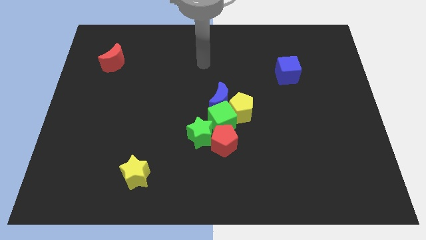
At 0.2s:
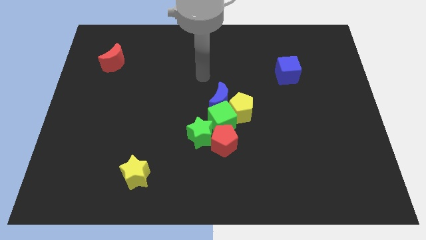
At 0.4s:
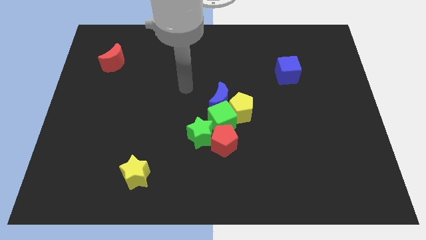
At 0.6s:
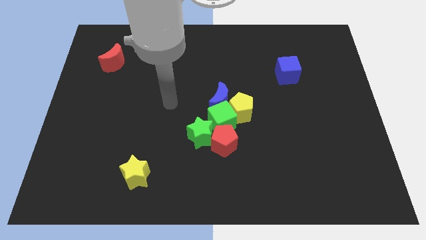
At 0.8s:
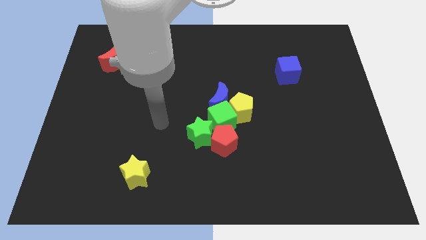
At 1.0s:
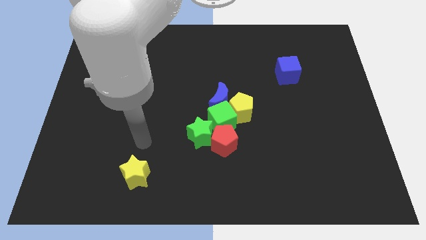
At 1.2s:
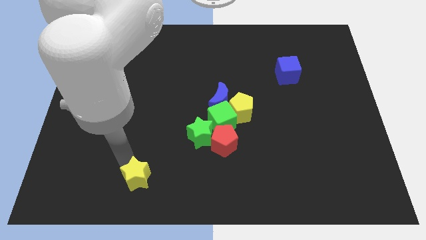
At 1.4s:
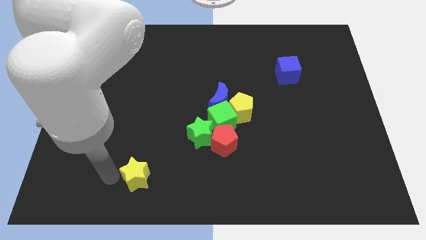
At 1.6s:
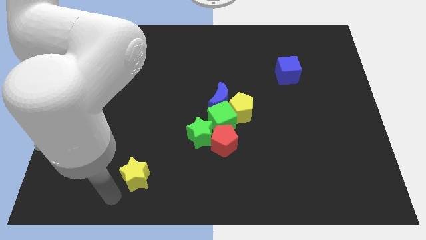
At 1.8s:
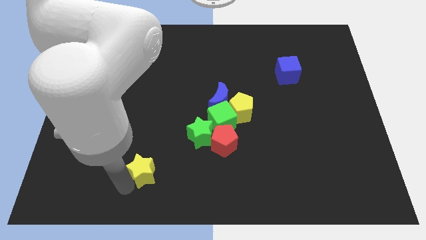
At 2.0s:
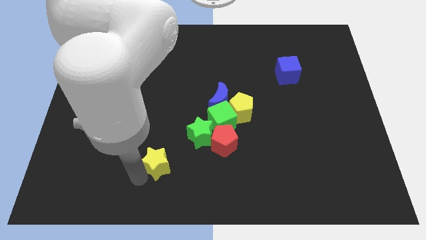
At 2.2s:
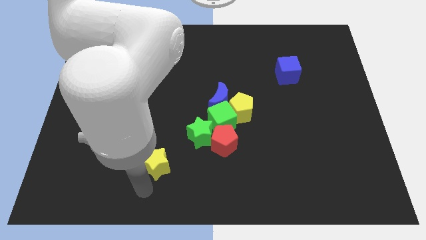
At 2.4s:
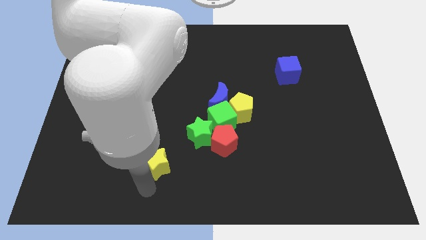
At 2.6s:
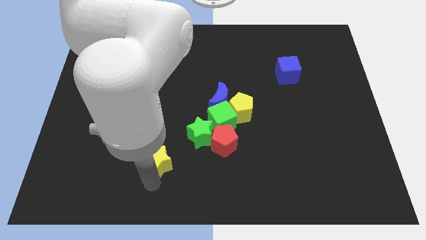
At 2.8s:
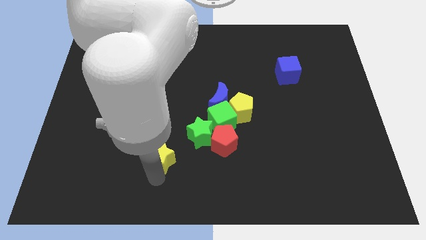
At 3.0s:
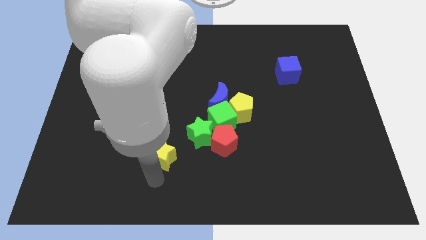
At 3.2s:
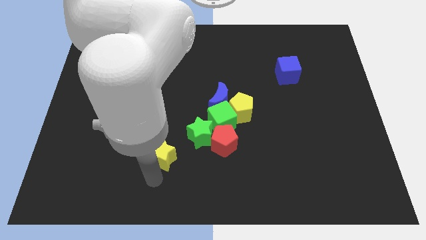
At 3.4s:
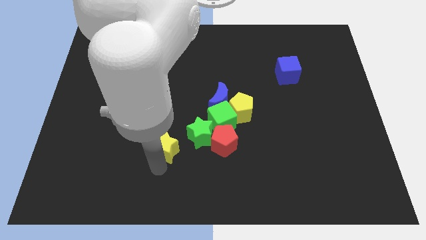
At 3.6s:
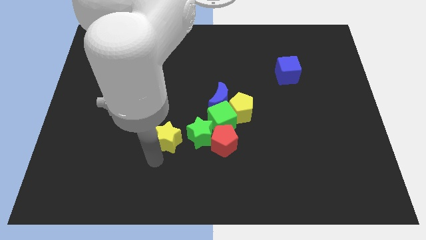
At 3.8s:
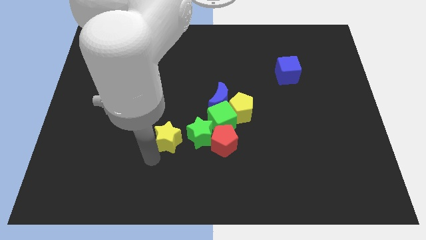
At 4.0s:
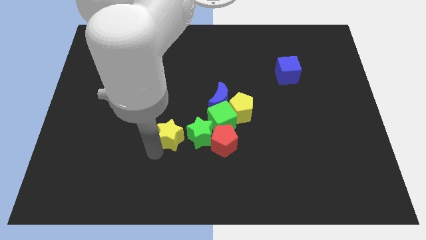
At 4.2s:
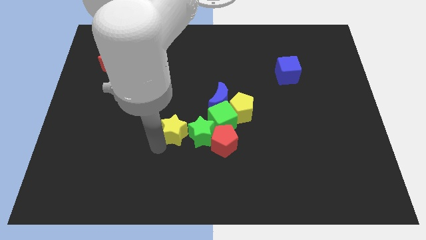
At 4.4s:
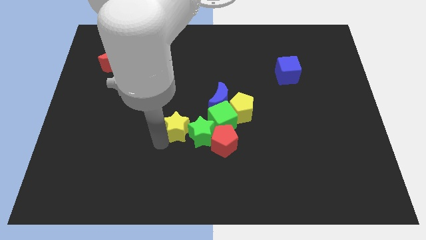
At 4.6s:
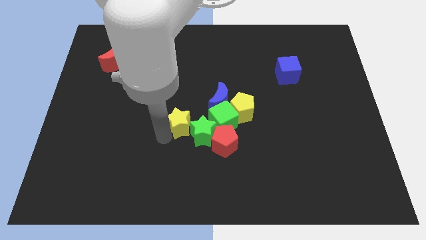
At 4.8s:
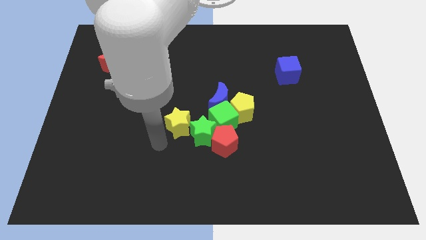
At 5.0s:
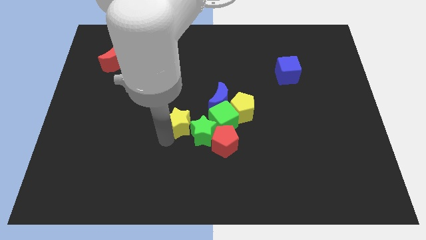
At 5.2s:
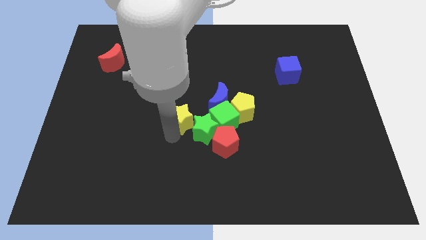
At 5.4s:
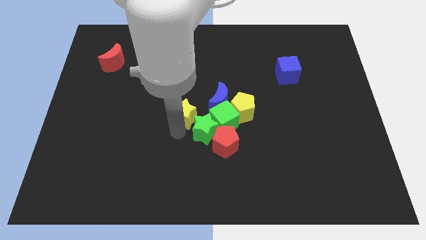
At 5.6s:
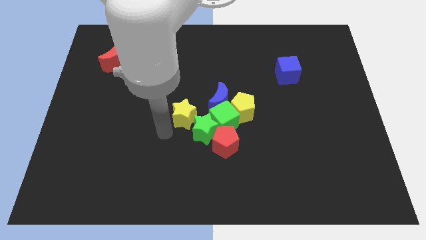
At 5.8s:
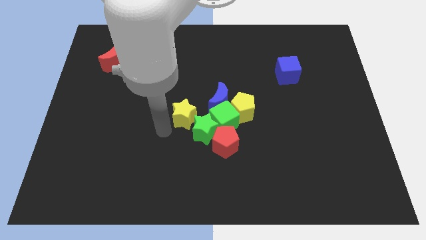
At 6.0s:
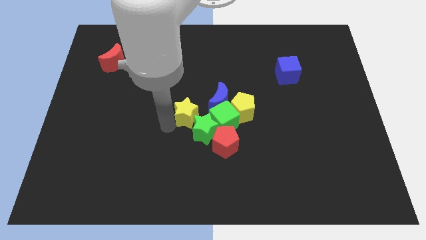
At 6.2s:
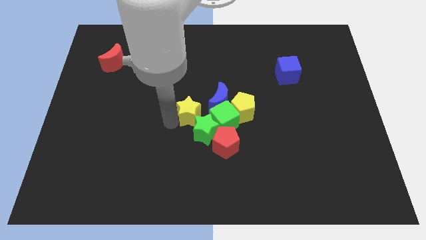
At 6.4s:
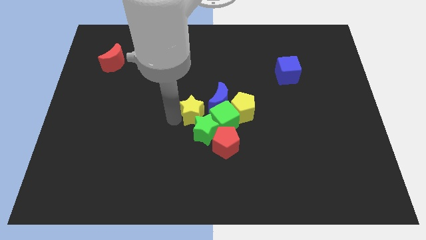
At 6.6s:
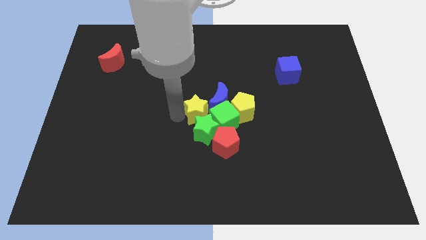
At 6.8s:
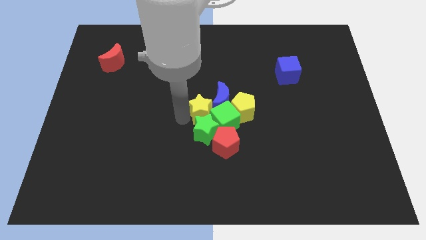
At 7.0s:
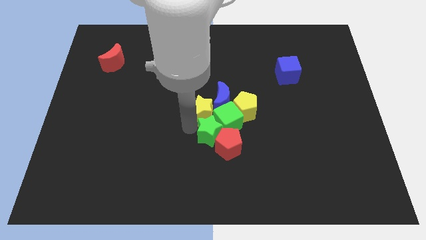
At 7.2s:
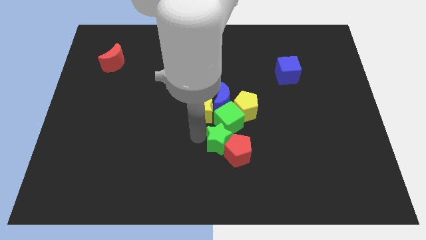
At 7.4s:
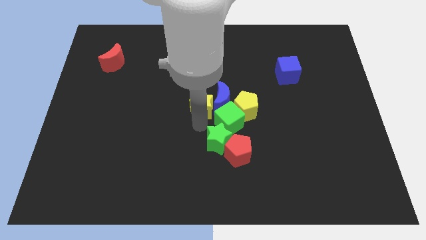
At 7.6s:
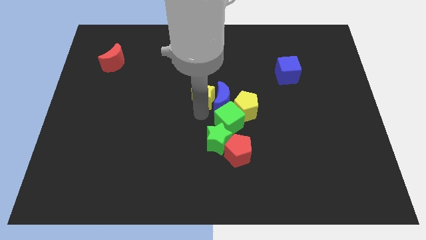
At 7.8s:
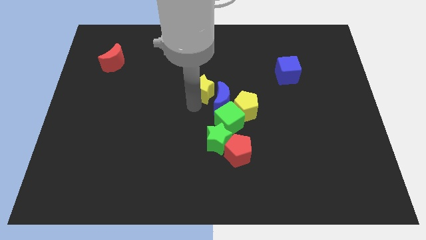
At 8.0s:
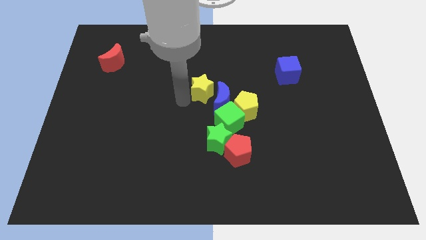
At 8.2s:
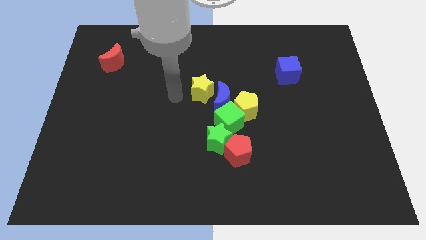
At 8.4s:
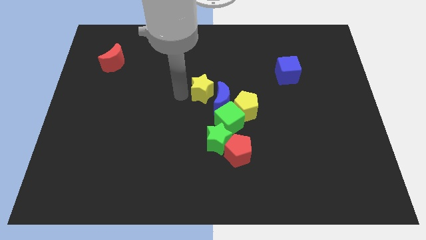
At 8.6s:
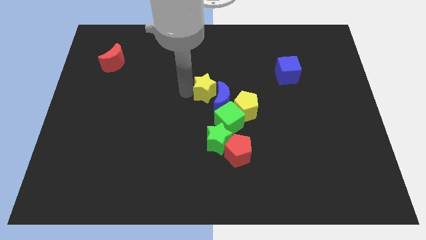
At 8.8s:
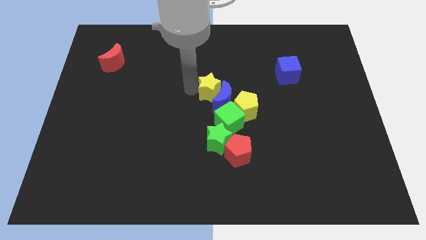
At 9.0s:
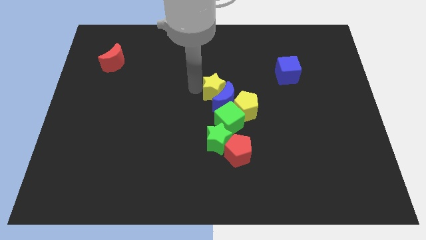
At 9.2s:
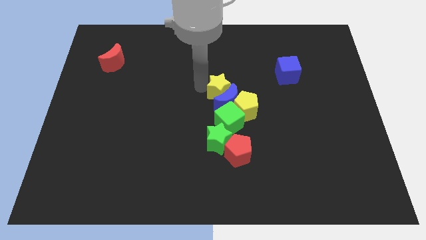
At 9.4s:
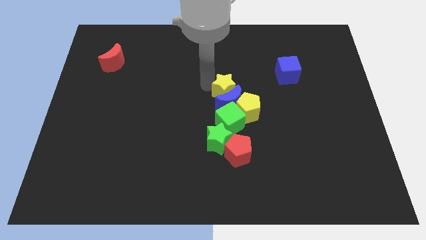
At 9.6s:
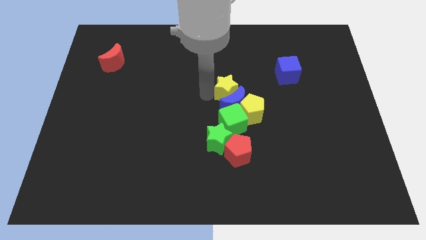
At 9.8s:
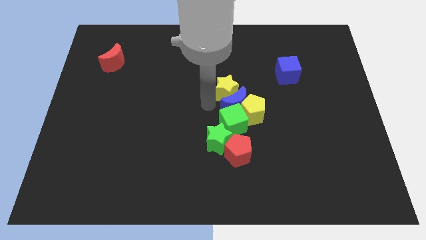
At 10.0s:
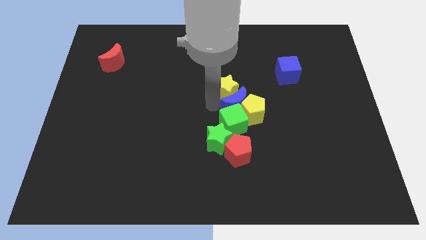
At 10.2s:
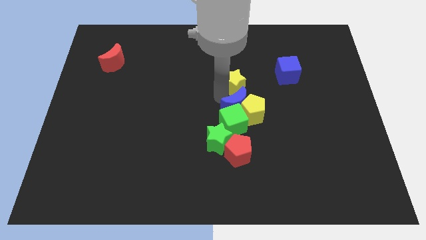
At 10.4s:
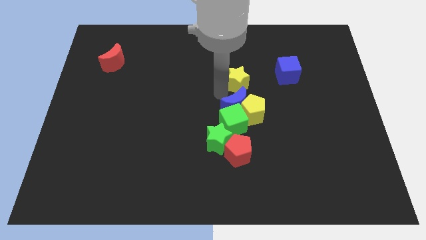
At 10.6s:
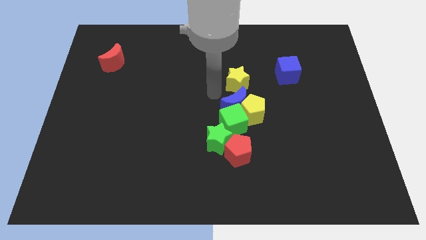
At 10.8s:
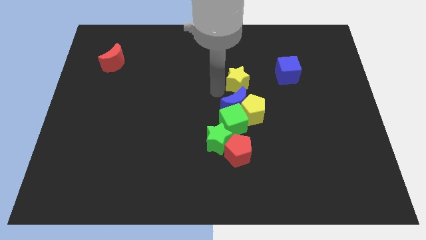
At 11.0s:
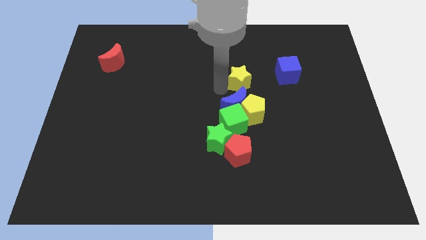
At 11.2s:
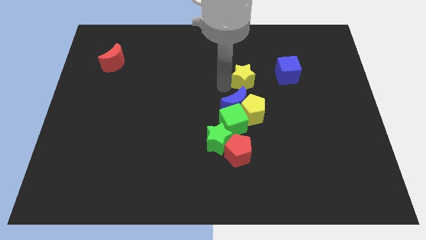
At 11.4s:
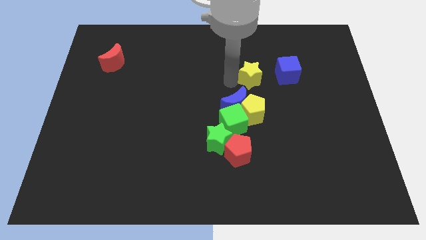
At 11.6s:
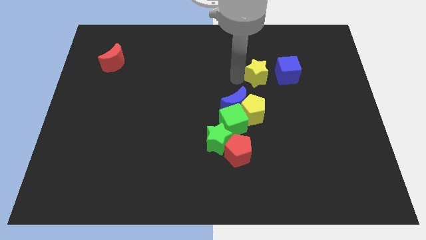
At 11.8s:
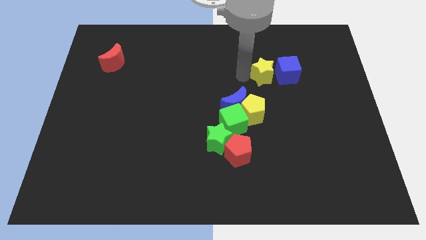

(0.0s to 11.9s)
put the yellow star towards the blue cube

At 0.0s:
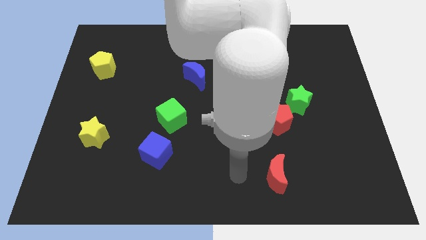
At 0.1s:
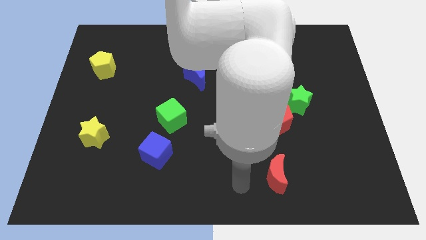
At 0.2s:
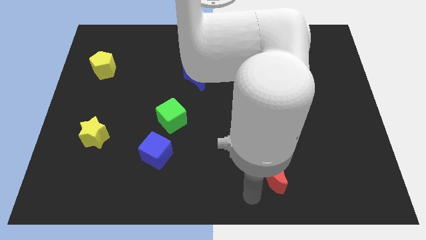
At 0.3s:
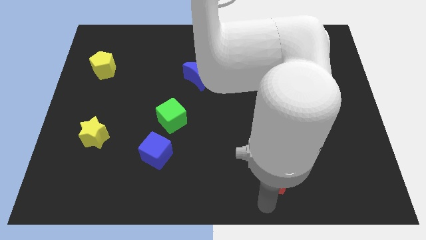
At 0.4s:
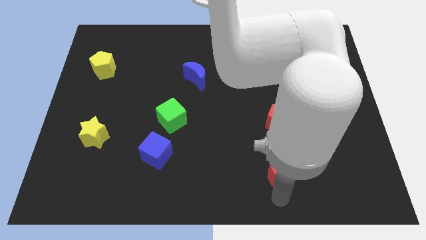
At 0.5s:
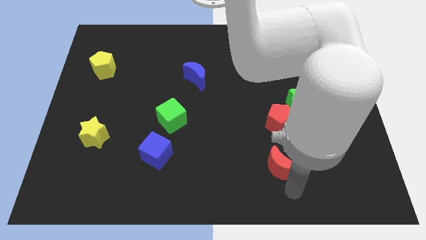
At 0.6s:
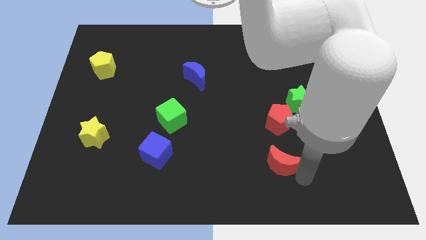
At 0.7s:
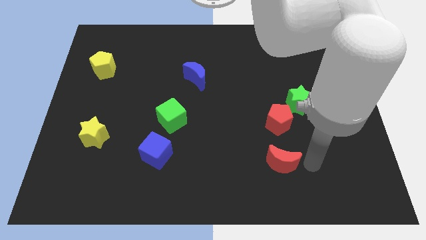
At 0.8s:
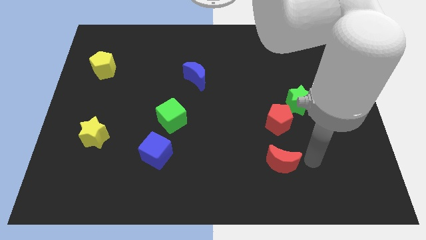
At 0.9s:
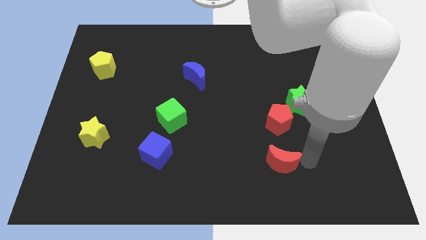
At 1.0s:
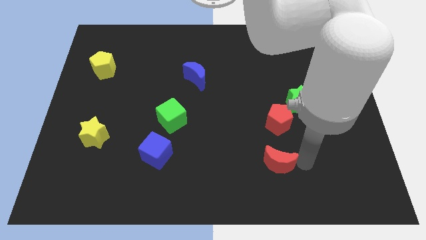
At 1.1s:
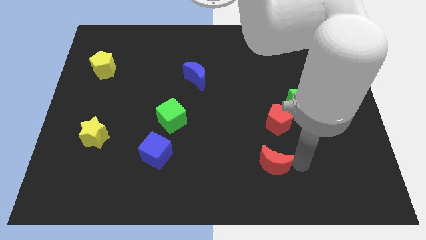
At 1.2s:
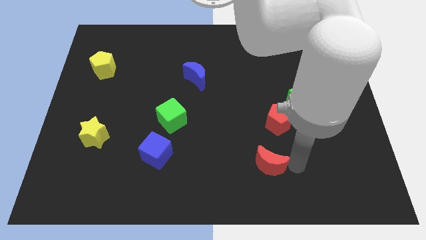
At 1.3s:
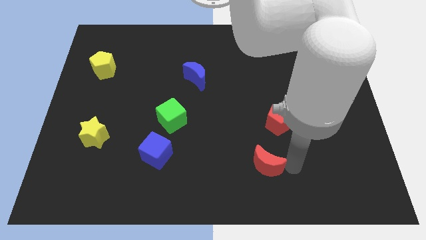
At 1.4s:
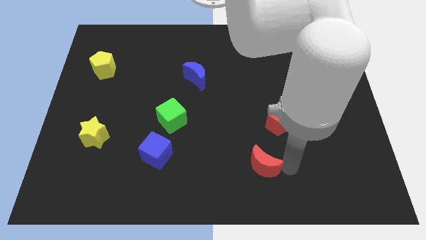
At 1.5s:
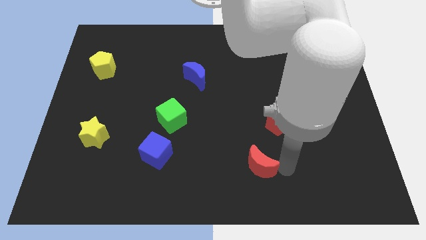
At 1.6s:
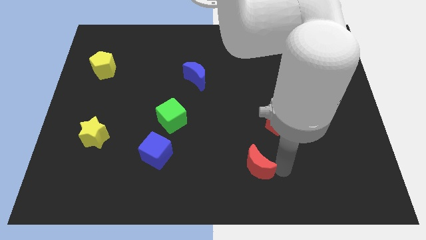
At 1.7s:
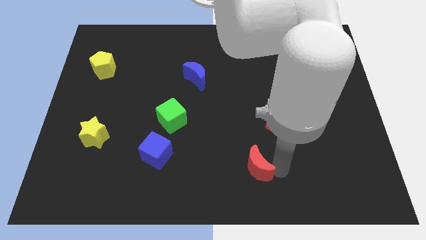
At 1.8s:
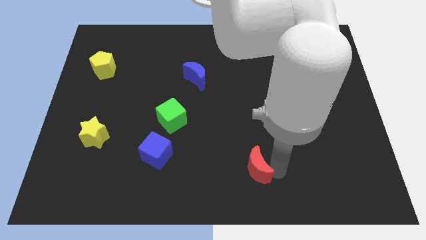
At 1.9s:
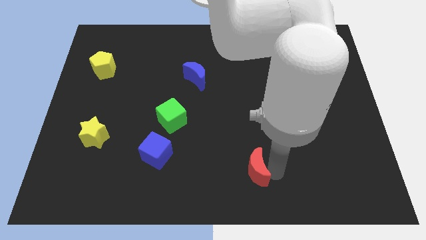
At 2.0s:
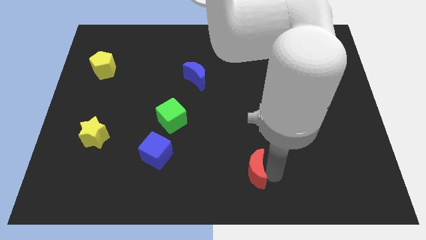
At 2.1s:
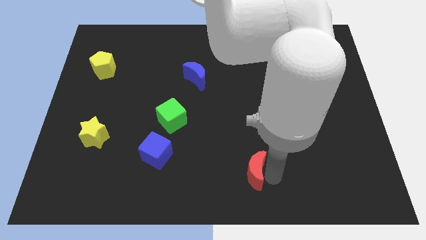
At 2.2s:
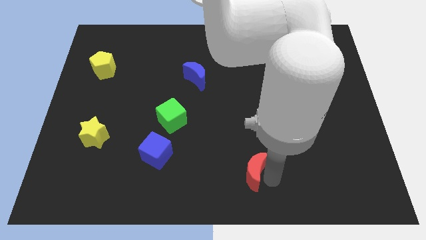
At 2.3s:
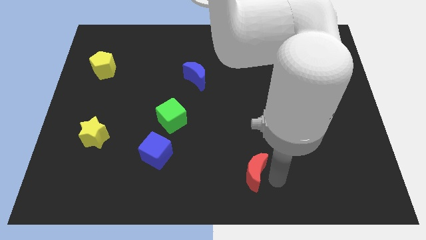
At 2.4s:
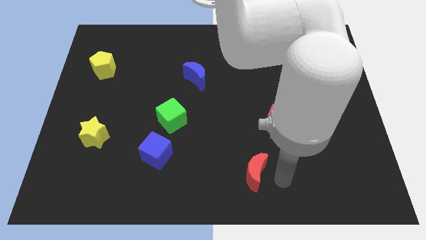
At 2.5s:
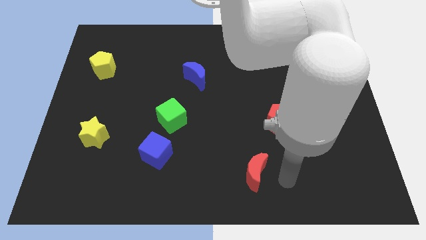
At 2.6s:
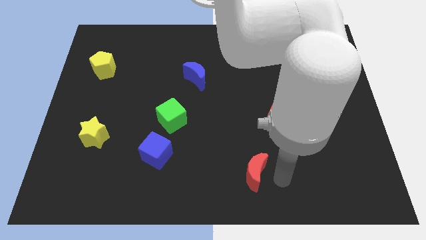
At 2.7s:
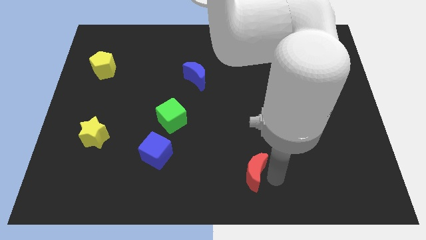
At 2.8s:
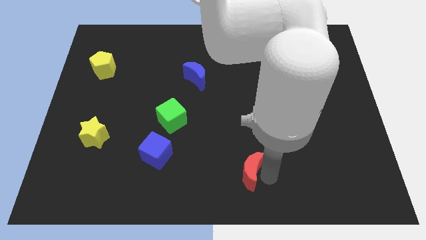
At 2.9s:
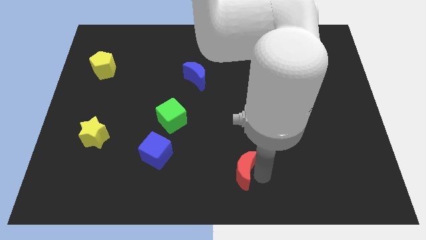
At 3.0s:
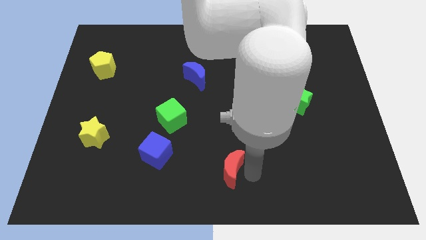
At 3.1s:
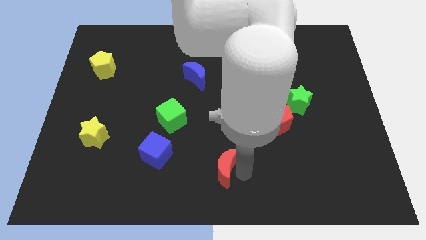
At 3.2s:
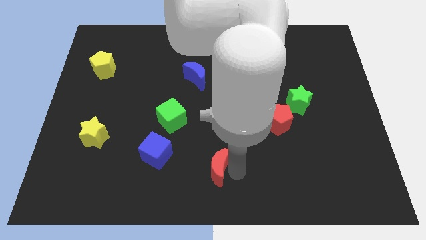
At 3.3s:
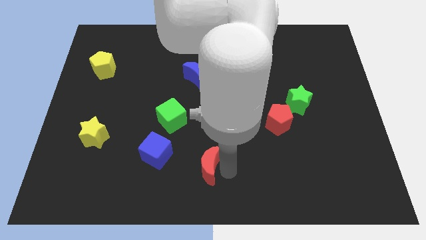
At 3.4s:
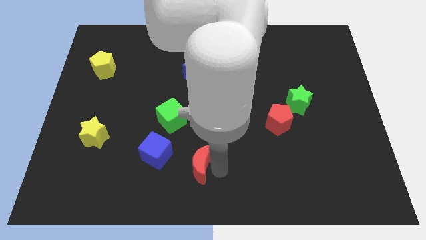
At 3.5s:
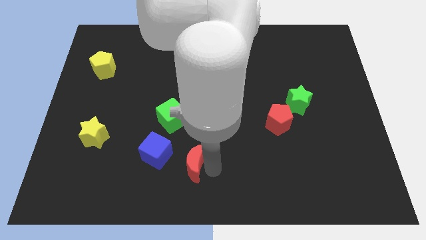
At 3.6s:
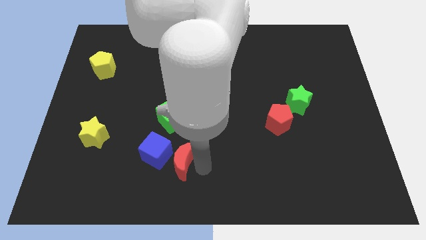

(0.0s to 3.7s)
slide the red moon to the blue cube
